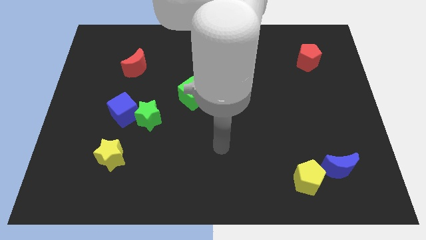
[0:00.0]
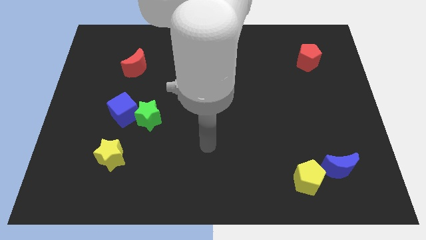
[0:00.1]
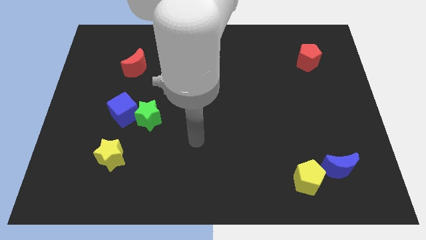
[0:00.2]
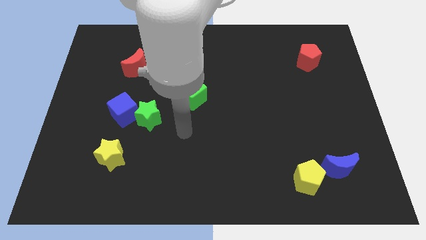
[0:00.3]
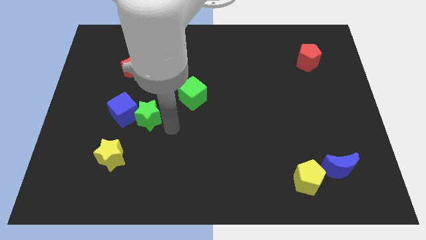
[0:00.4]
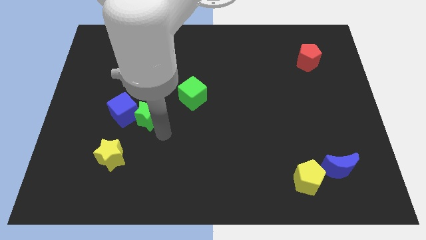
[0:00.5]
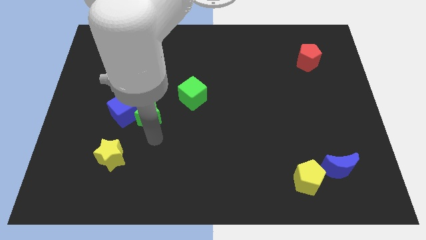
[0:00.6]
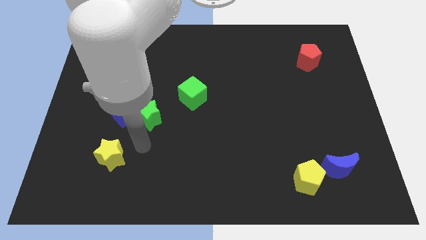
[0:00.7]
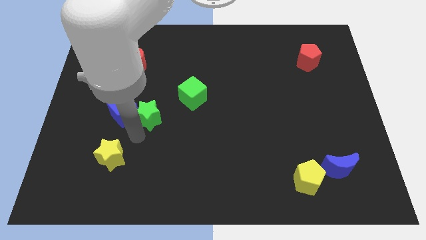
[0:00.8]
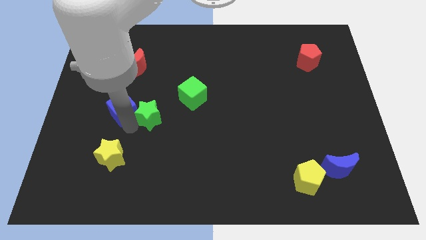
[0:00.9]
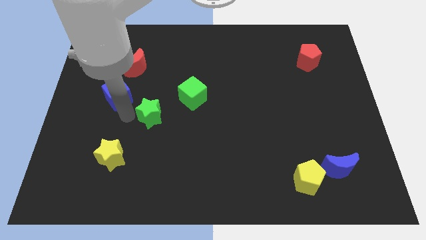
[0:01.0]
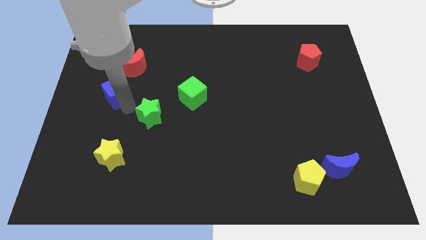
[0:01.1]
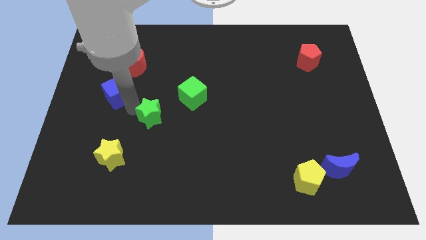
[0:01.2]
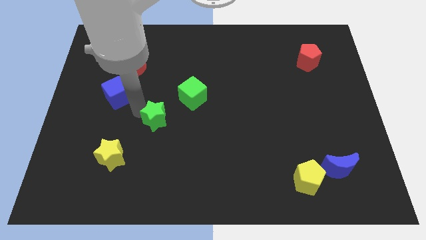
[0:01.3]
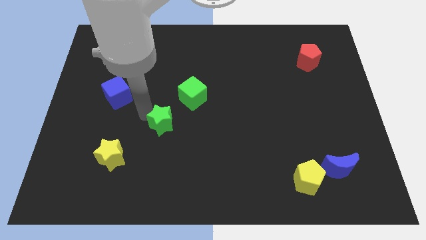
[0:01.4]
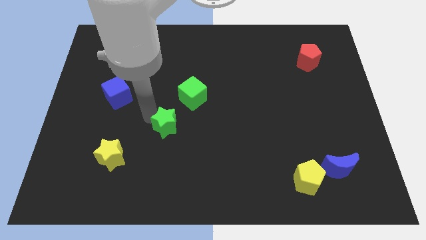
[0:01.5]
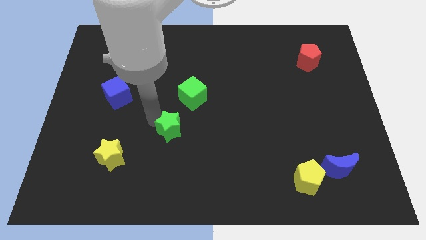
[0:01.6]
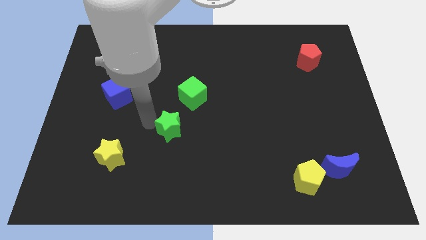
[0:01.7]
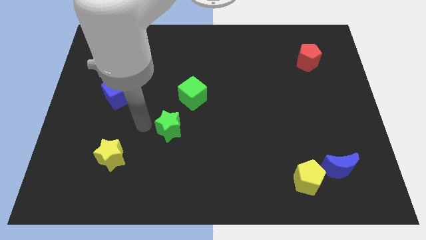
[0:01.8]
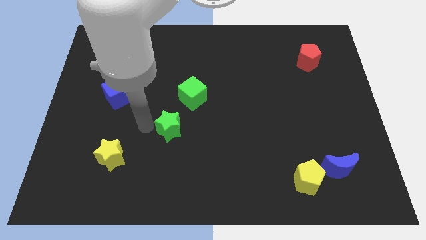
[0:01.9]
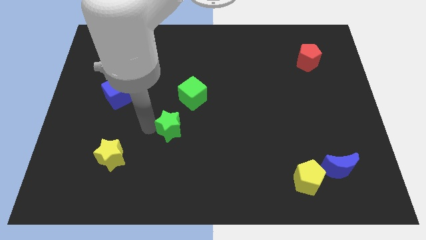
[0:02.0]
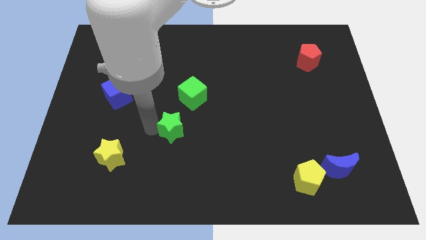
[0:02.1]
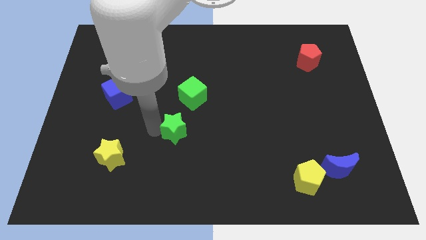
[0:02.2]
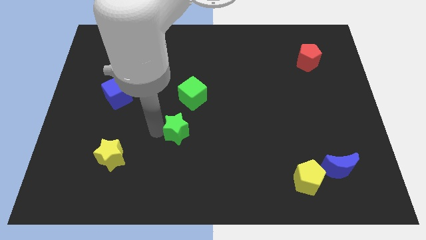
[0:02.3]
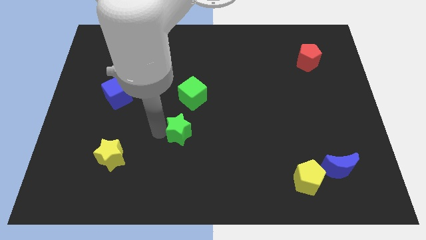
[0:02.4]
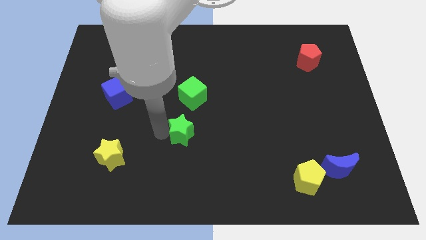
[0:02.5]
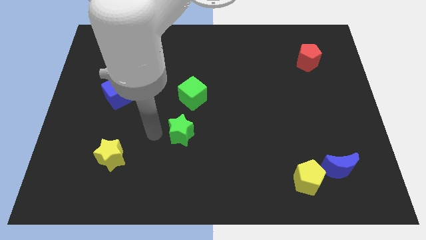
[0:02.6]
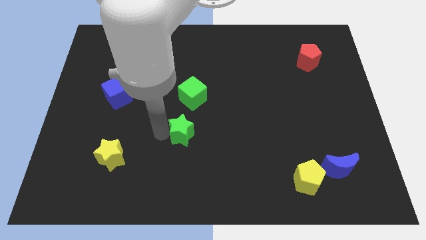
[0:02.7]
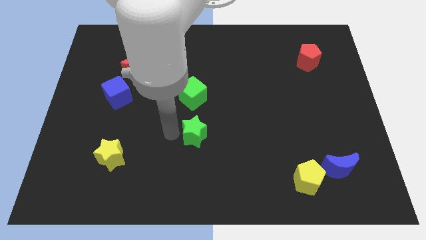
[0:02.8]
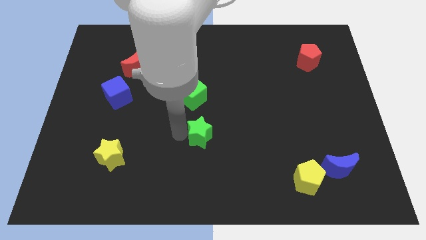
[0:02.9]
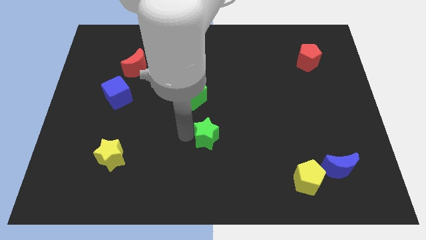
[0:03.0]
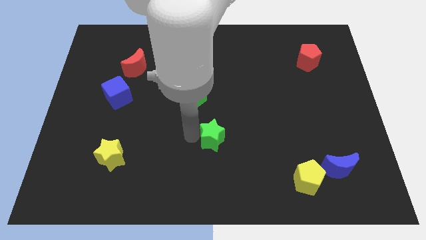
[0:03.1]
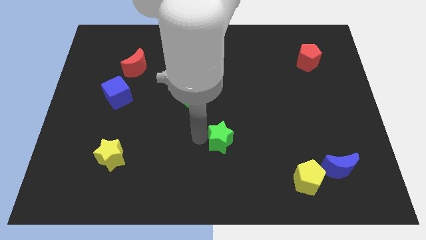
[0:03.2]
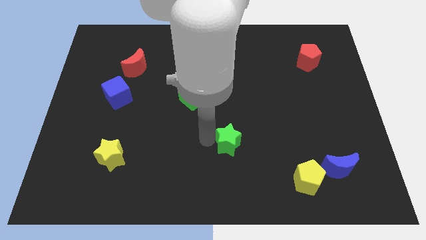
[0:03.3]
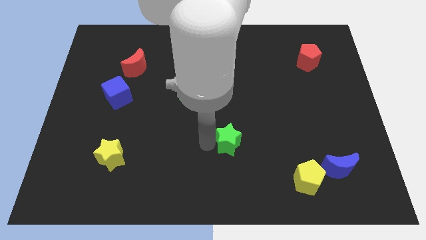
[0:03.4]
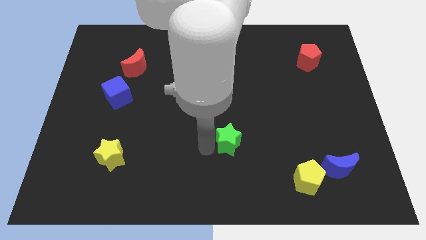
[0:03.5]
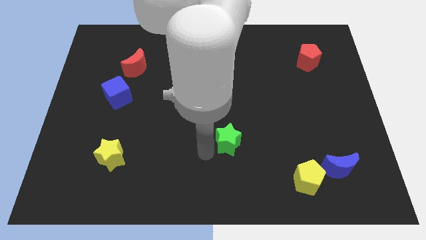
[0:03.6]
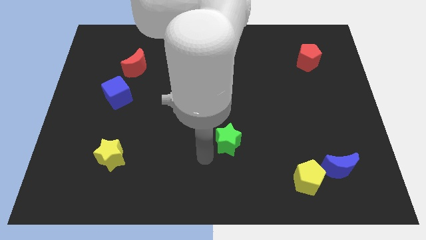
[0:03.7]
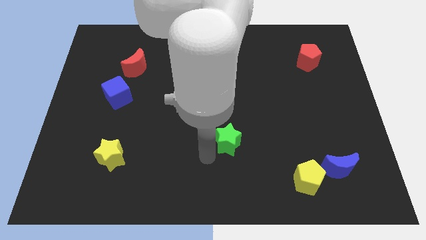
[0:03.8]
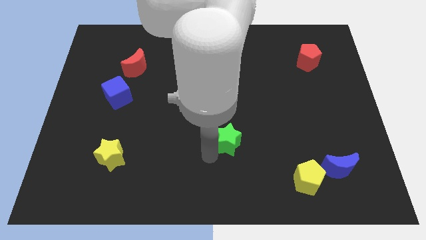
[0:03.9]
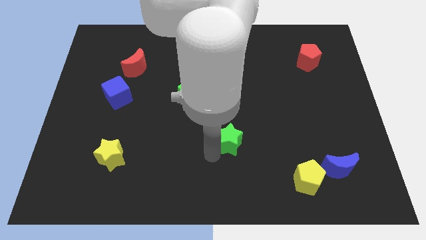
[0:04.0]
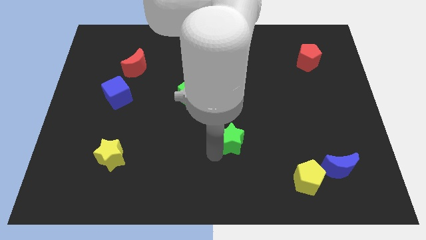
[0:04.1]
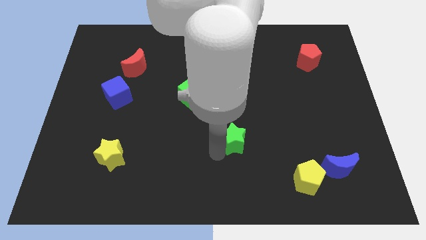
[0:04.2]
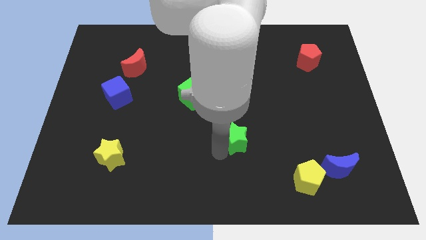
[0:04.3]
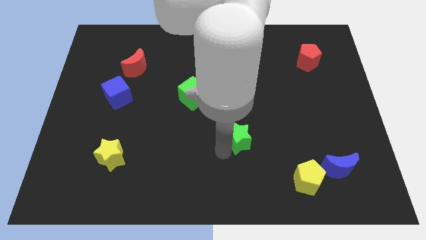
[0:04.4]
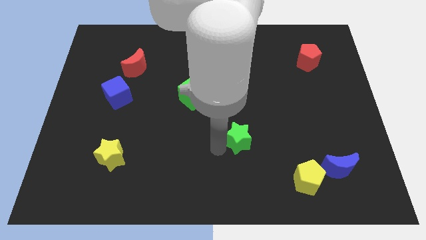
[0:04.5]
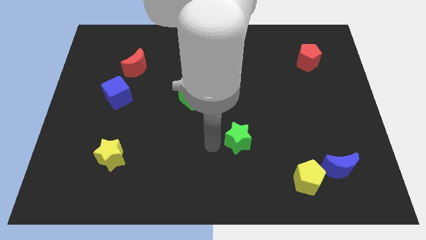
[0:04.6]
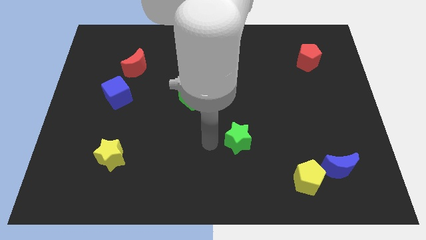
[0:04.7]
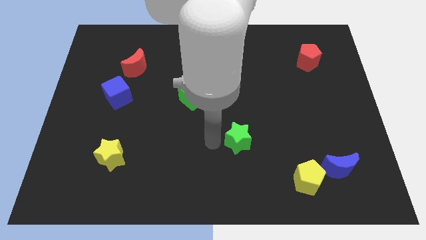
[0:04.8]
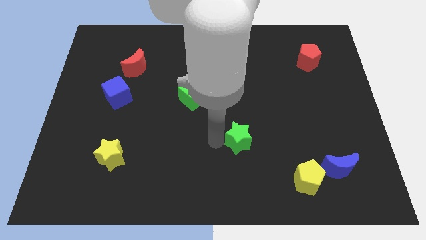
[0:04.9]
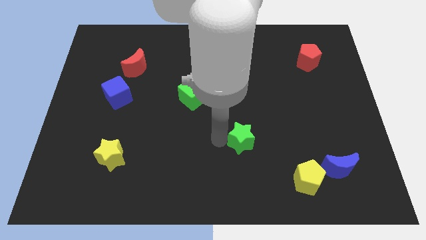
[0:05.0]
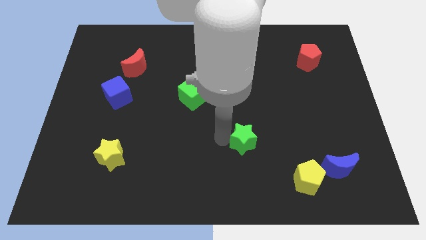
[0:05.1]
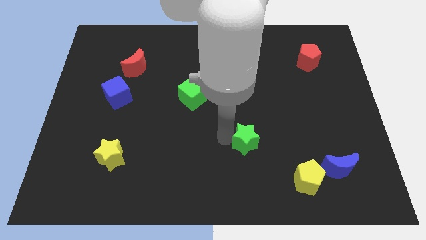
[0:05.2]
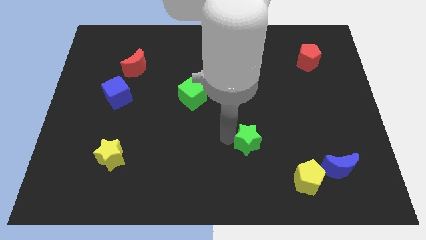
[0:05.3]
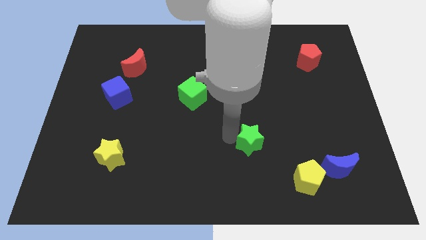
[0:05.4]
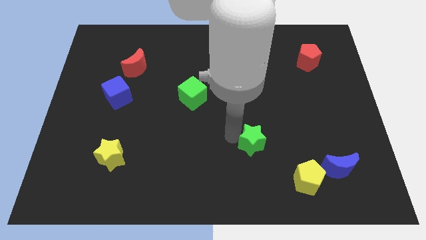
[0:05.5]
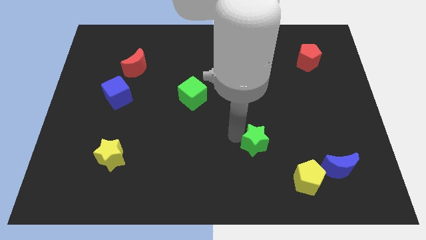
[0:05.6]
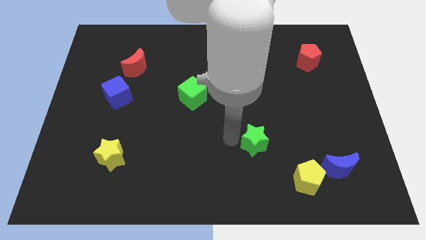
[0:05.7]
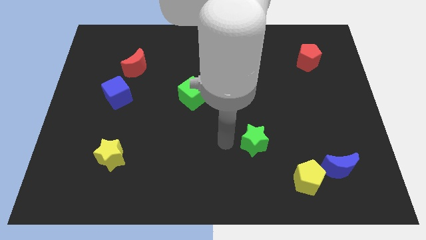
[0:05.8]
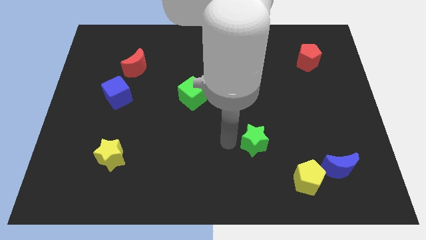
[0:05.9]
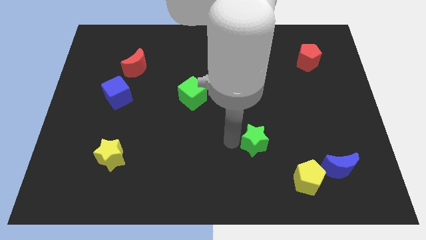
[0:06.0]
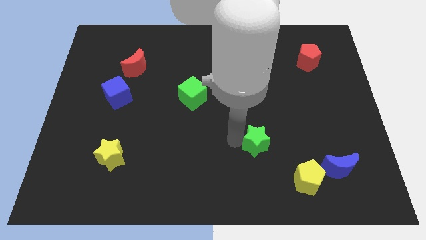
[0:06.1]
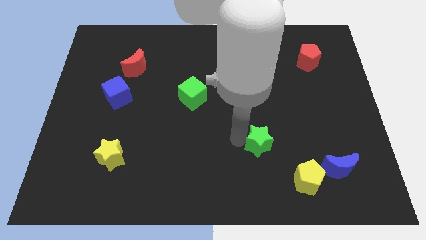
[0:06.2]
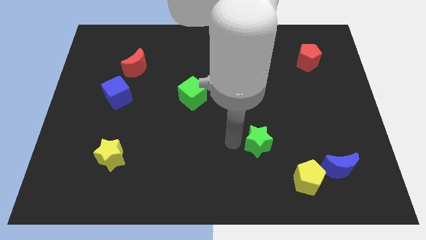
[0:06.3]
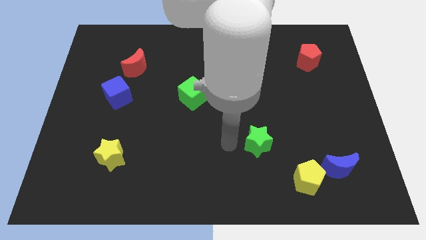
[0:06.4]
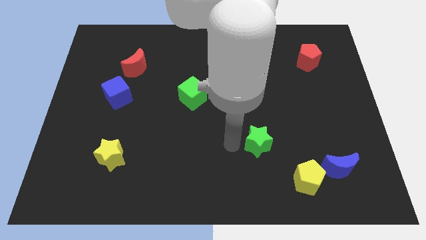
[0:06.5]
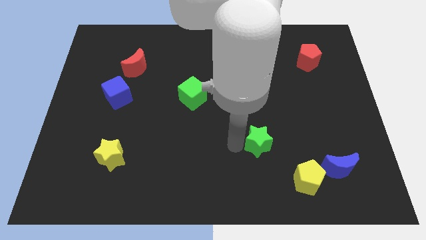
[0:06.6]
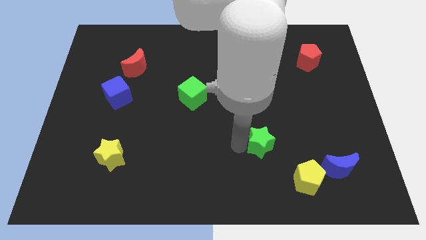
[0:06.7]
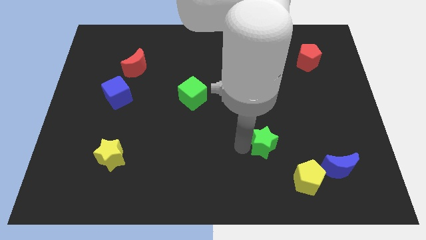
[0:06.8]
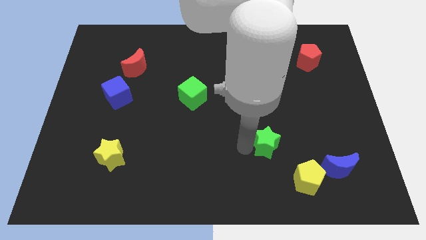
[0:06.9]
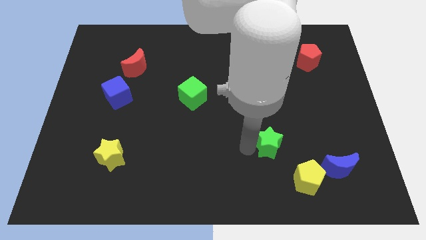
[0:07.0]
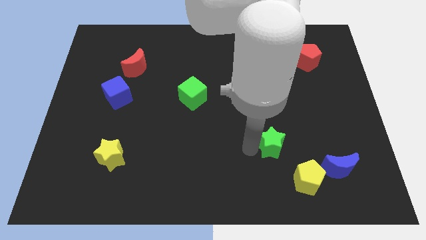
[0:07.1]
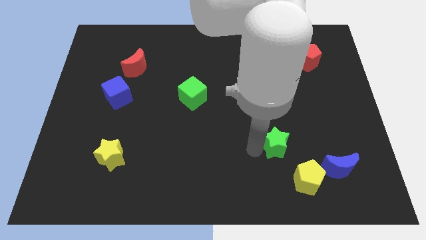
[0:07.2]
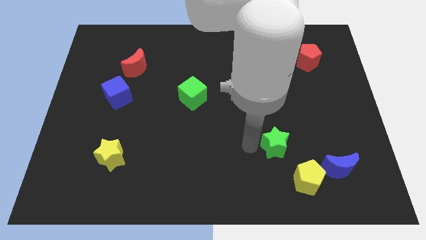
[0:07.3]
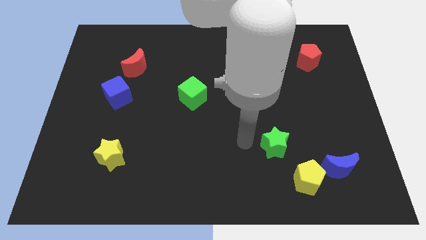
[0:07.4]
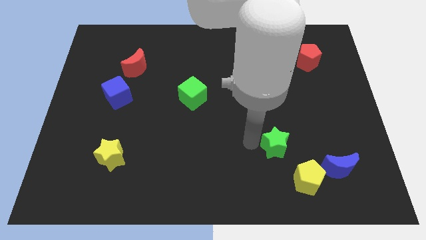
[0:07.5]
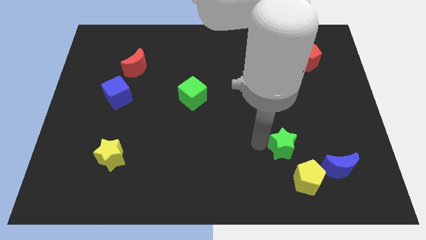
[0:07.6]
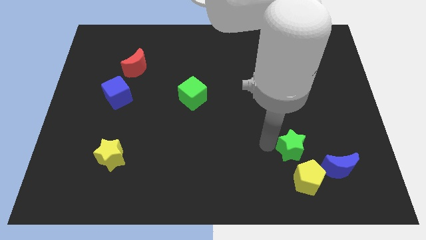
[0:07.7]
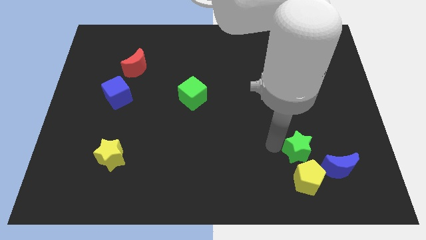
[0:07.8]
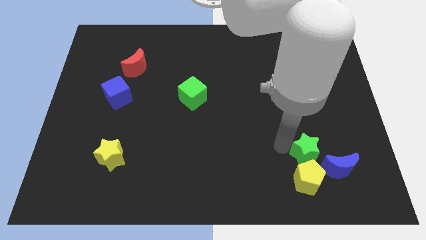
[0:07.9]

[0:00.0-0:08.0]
slide the green star diagonally up and to the right of the yellow pentagon
